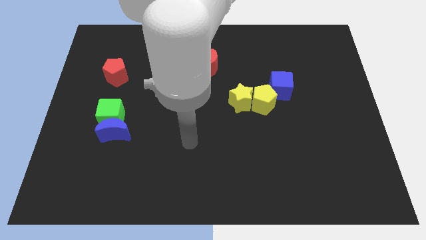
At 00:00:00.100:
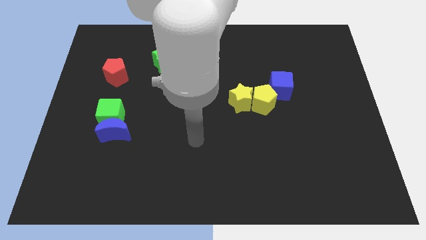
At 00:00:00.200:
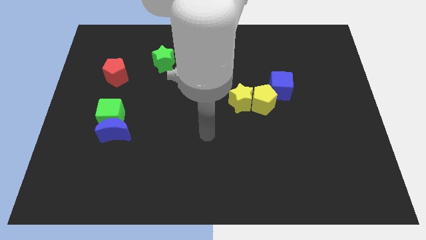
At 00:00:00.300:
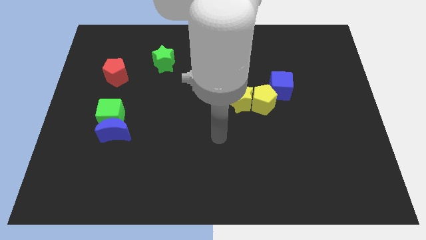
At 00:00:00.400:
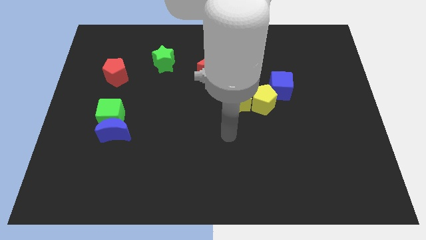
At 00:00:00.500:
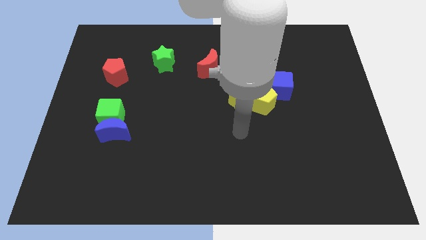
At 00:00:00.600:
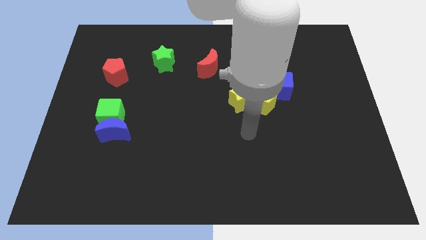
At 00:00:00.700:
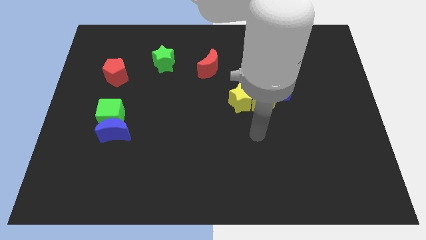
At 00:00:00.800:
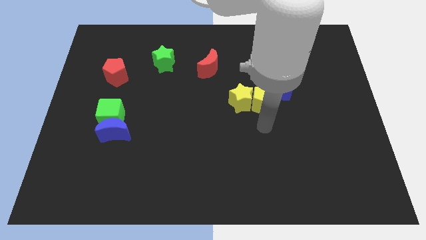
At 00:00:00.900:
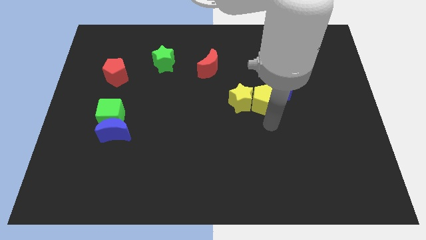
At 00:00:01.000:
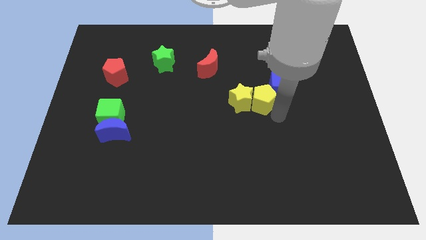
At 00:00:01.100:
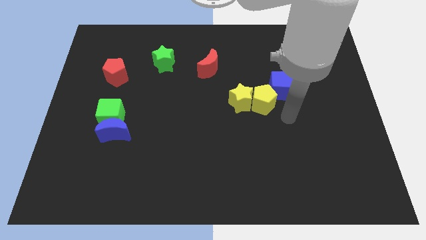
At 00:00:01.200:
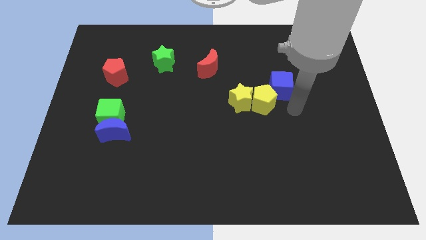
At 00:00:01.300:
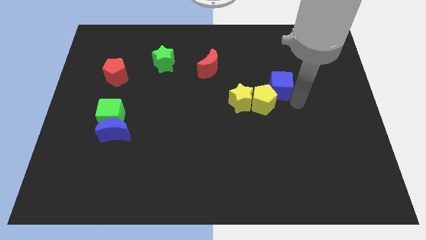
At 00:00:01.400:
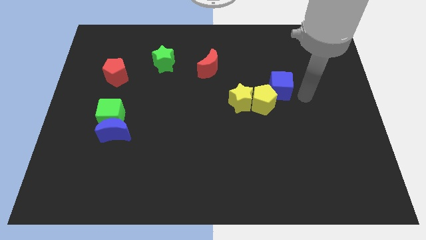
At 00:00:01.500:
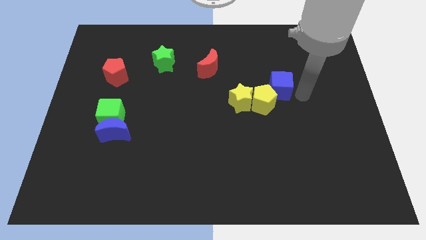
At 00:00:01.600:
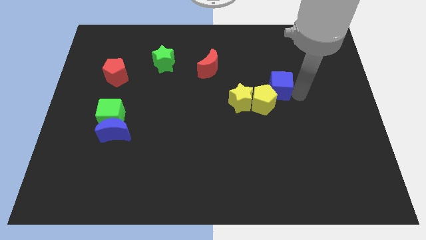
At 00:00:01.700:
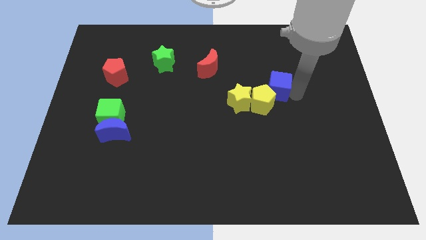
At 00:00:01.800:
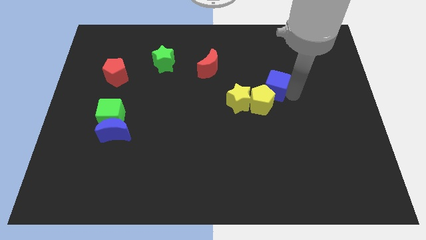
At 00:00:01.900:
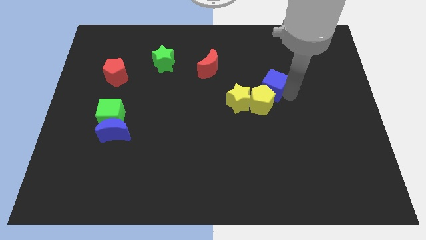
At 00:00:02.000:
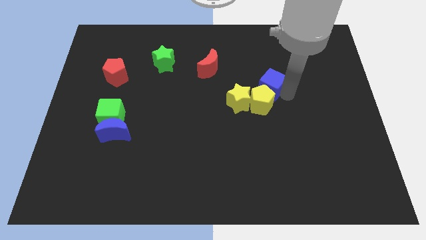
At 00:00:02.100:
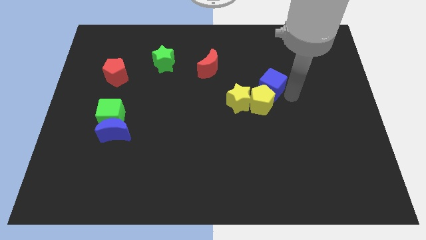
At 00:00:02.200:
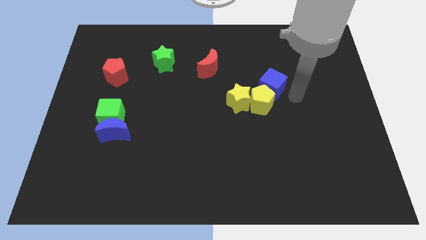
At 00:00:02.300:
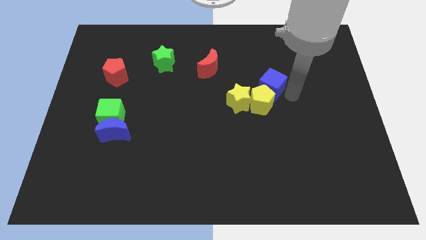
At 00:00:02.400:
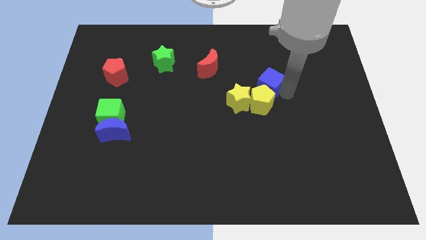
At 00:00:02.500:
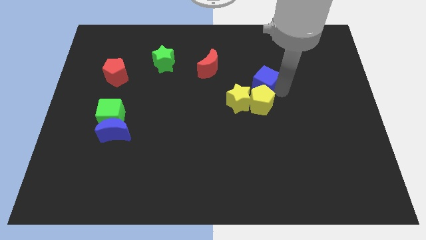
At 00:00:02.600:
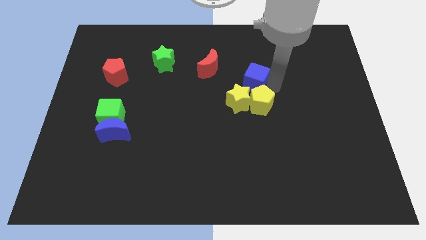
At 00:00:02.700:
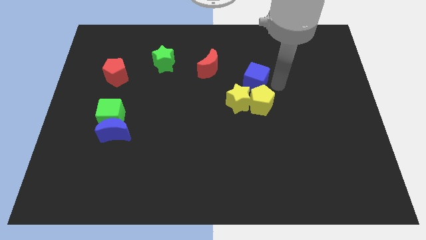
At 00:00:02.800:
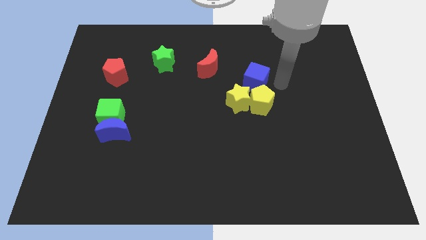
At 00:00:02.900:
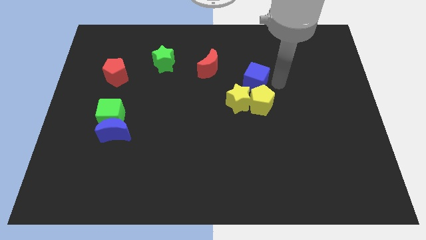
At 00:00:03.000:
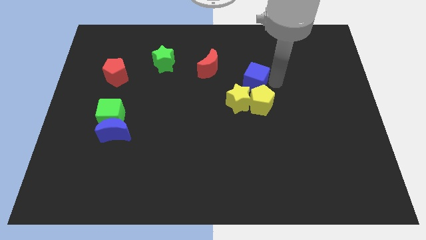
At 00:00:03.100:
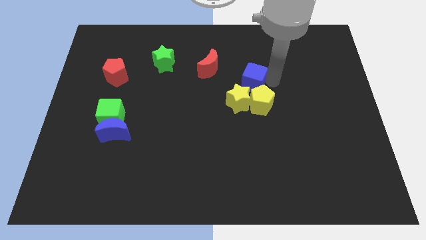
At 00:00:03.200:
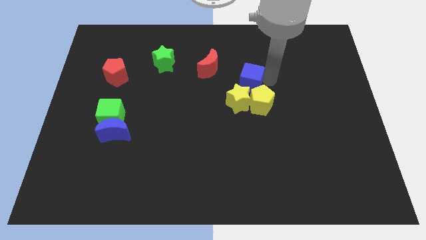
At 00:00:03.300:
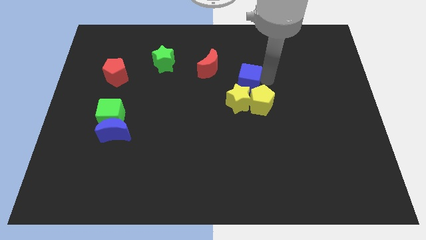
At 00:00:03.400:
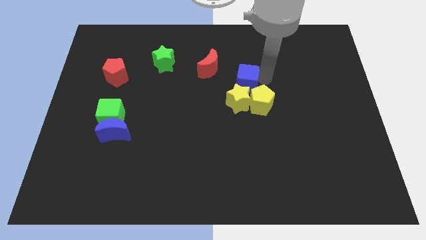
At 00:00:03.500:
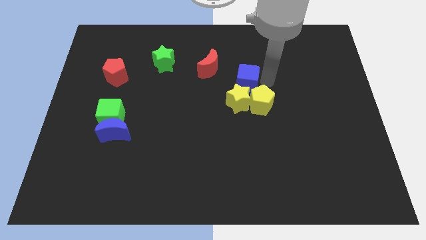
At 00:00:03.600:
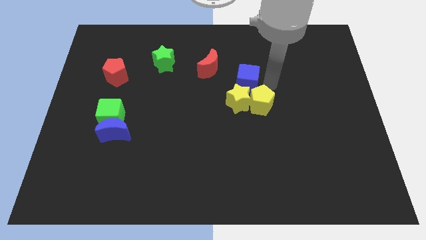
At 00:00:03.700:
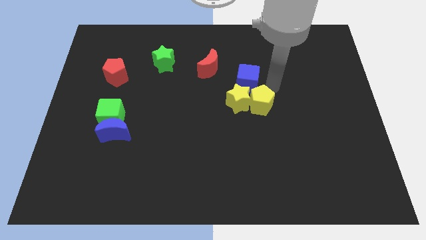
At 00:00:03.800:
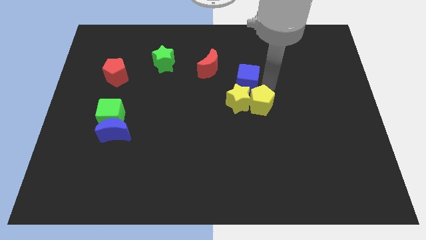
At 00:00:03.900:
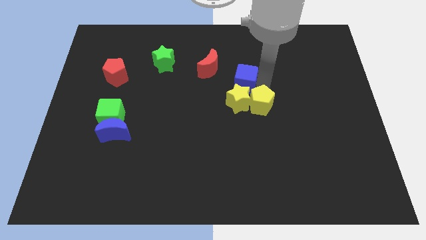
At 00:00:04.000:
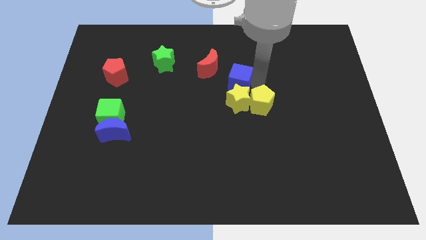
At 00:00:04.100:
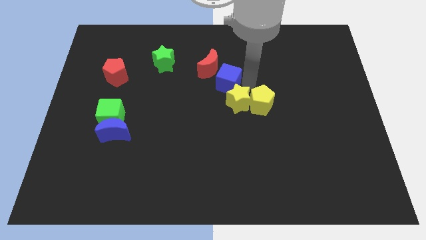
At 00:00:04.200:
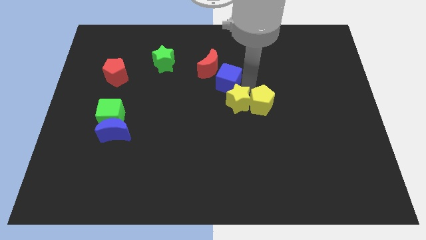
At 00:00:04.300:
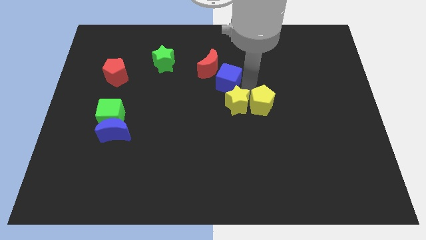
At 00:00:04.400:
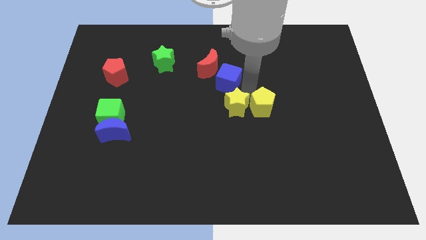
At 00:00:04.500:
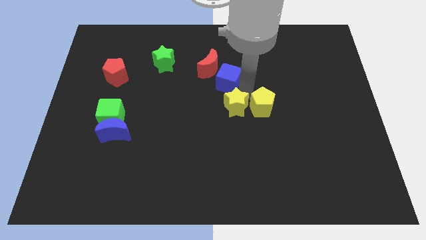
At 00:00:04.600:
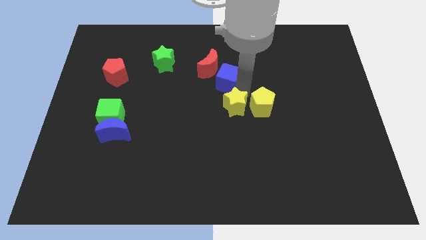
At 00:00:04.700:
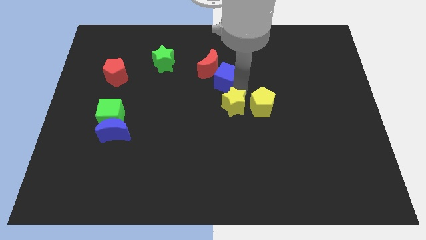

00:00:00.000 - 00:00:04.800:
move the blue cube to the red moon

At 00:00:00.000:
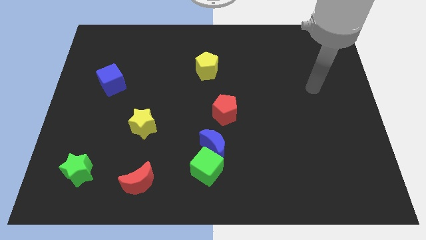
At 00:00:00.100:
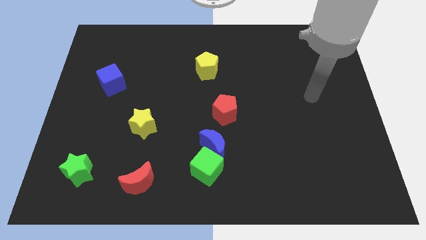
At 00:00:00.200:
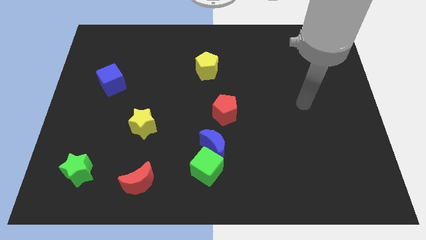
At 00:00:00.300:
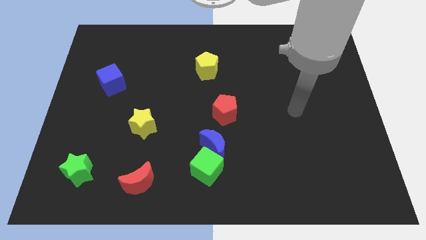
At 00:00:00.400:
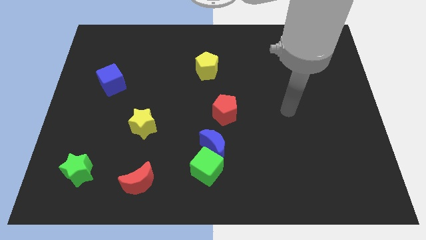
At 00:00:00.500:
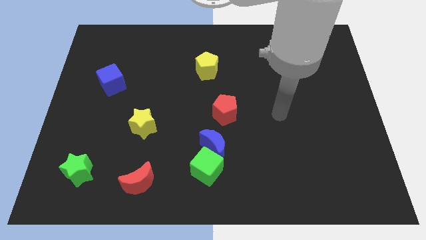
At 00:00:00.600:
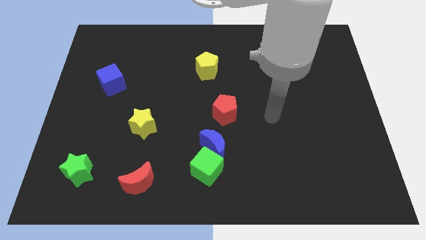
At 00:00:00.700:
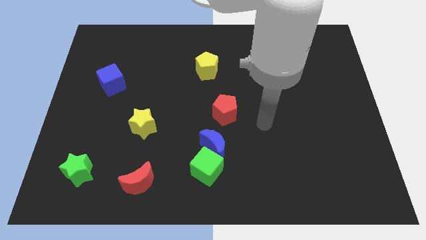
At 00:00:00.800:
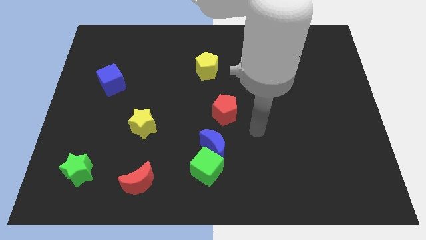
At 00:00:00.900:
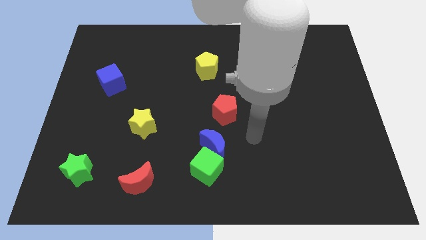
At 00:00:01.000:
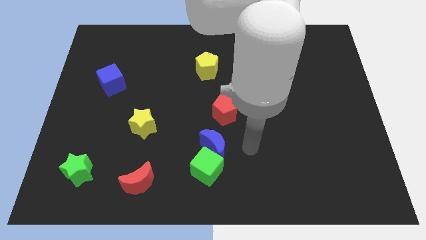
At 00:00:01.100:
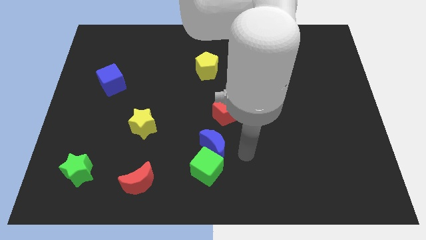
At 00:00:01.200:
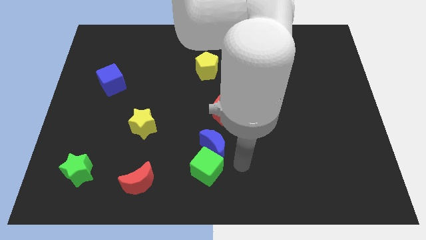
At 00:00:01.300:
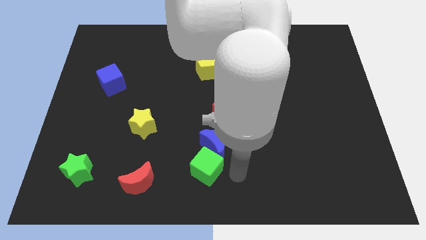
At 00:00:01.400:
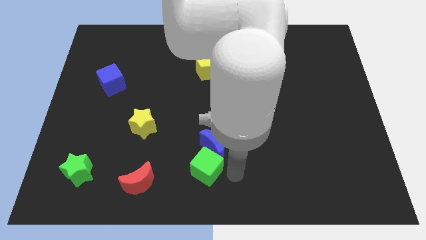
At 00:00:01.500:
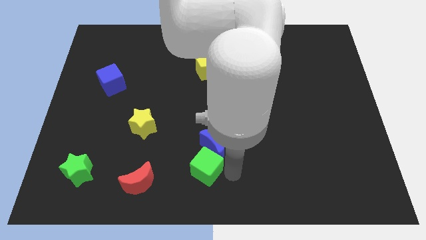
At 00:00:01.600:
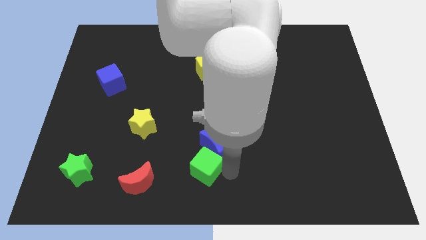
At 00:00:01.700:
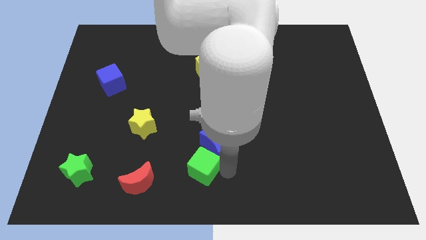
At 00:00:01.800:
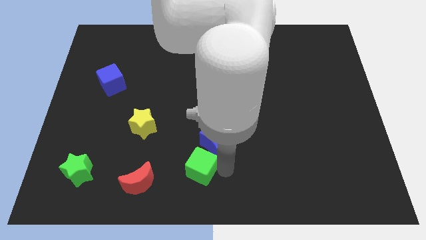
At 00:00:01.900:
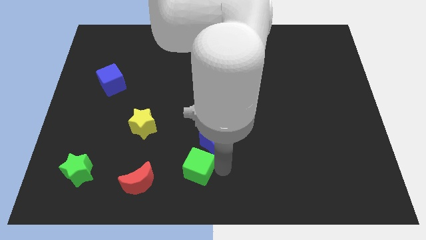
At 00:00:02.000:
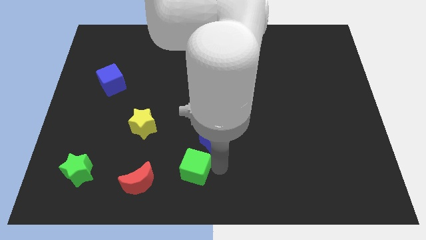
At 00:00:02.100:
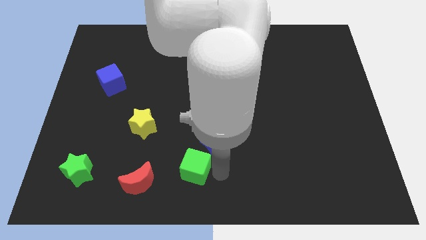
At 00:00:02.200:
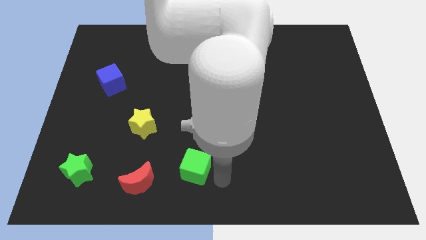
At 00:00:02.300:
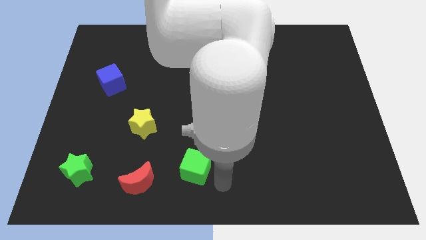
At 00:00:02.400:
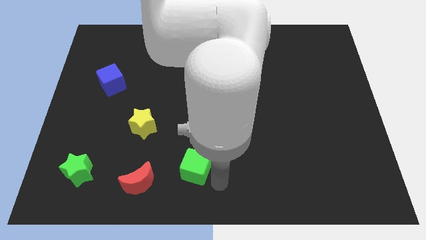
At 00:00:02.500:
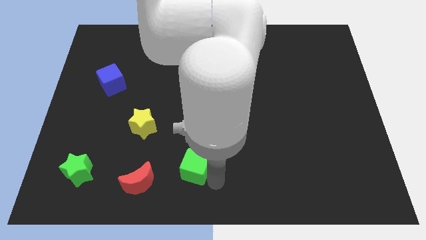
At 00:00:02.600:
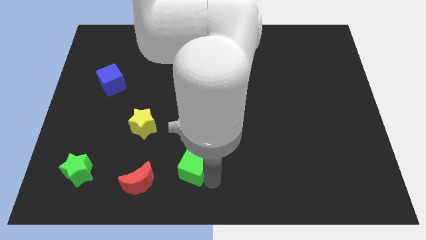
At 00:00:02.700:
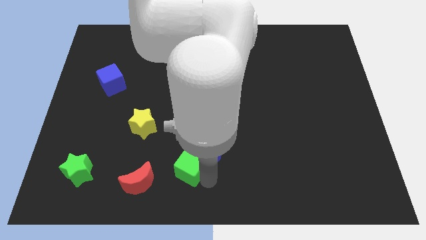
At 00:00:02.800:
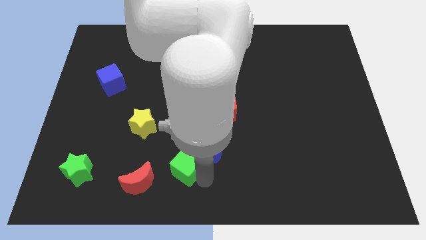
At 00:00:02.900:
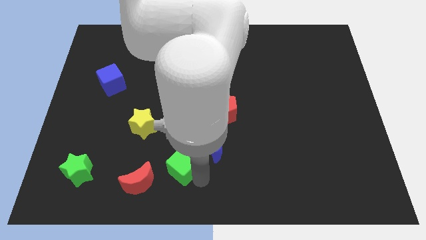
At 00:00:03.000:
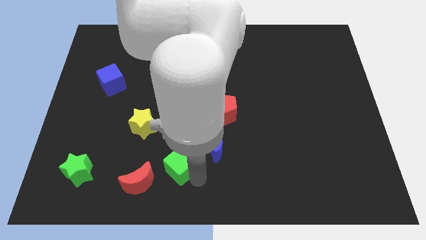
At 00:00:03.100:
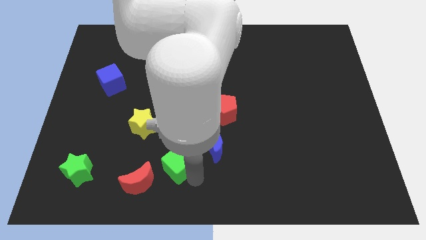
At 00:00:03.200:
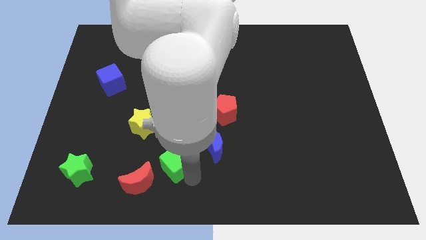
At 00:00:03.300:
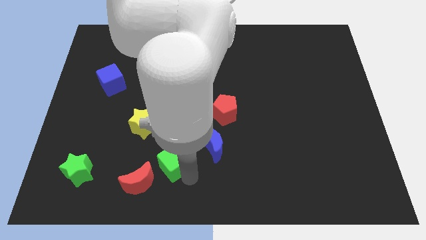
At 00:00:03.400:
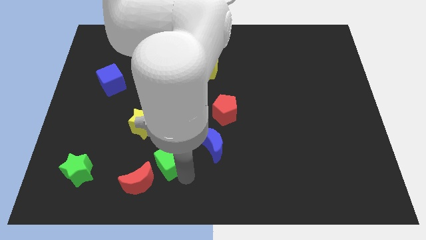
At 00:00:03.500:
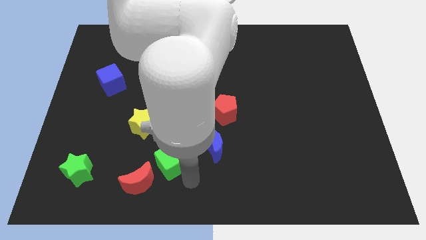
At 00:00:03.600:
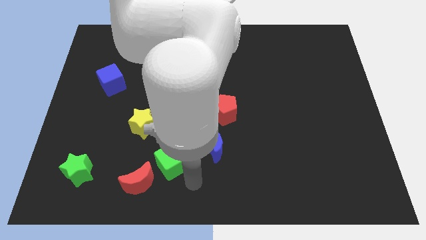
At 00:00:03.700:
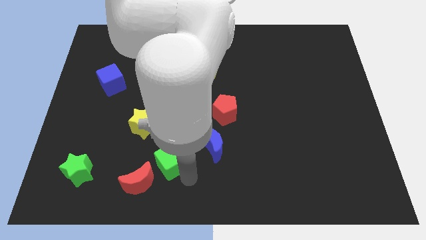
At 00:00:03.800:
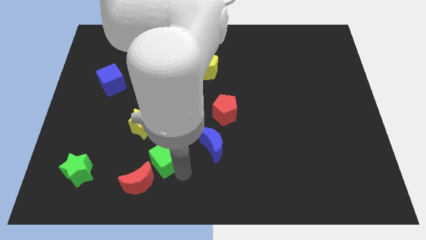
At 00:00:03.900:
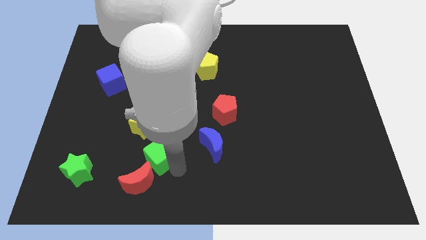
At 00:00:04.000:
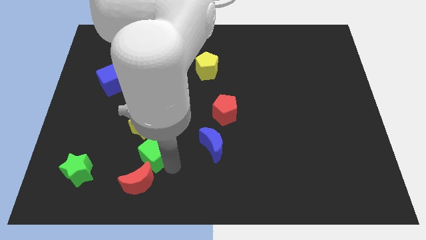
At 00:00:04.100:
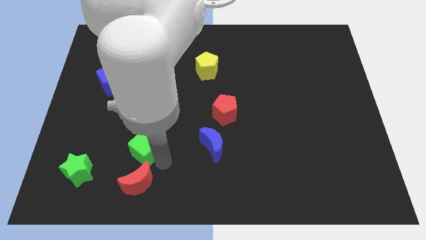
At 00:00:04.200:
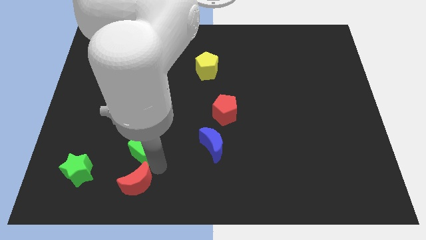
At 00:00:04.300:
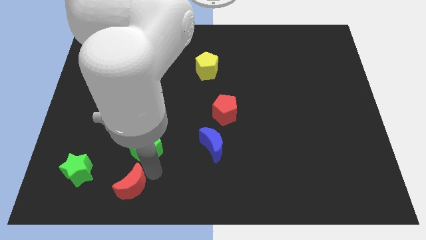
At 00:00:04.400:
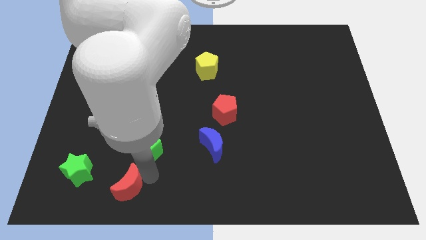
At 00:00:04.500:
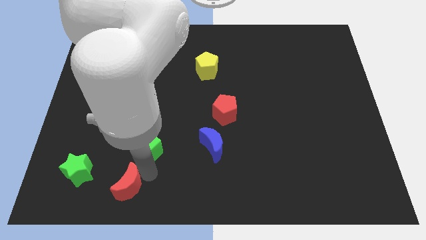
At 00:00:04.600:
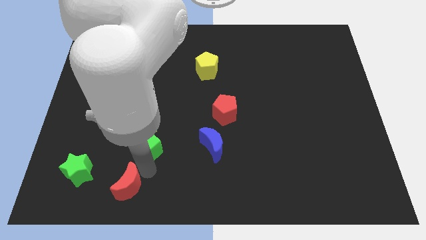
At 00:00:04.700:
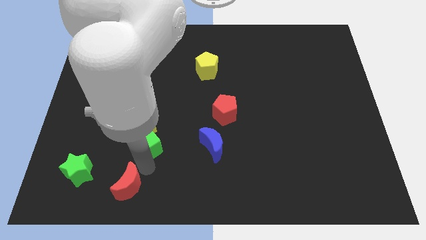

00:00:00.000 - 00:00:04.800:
slide the green cube to the yellow star
